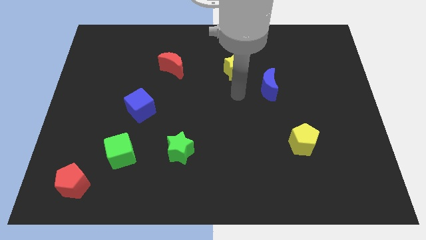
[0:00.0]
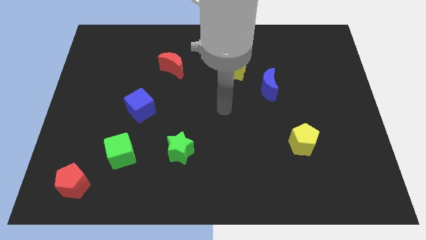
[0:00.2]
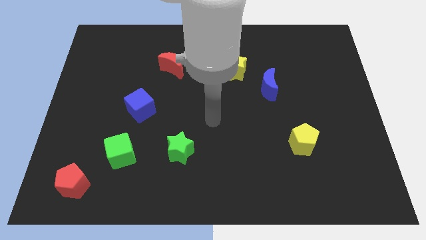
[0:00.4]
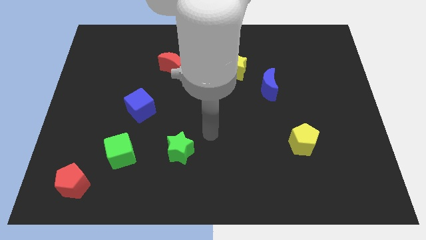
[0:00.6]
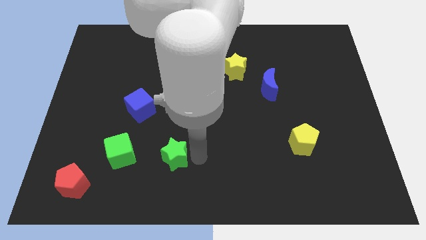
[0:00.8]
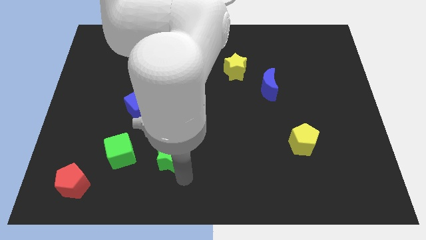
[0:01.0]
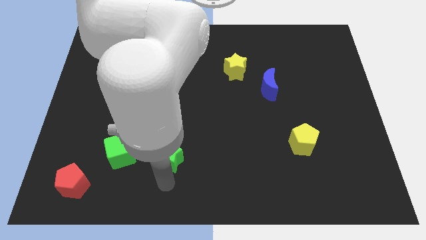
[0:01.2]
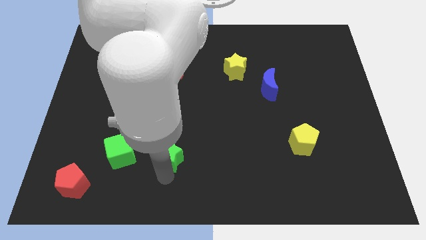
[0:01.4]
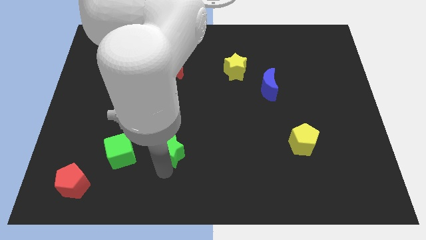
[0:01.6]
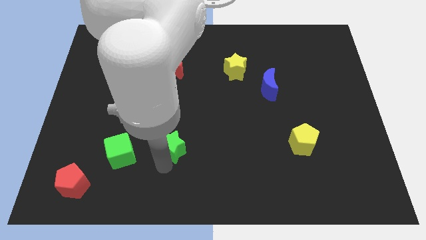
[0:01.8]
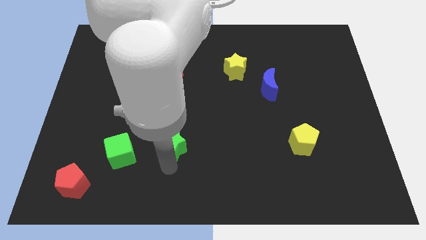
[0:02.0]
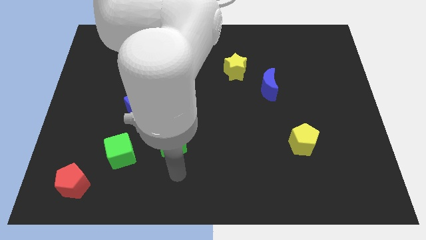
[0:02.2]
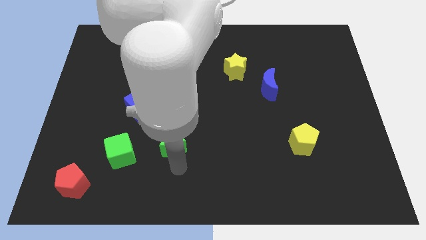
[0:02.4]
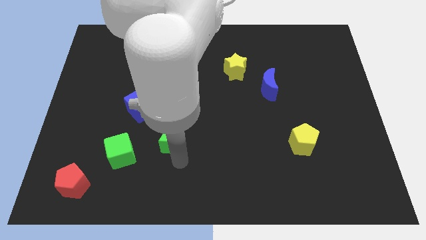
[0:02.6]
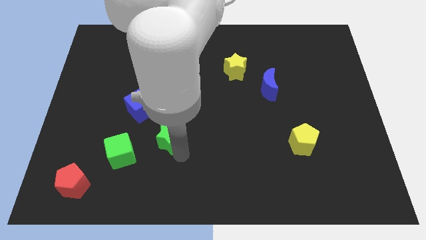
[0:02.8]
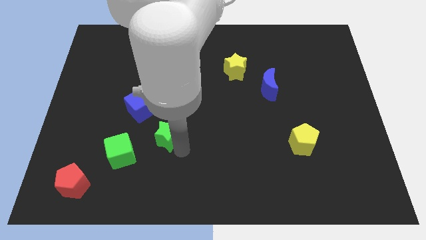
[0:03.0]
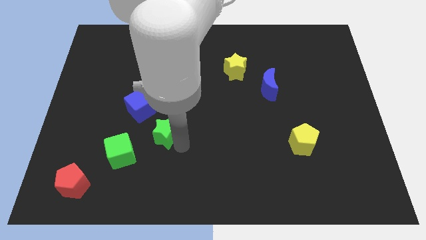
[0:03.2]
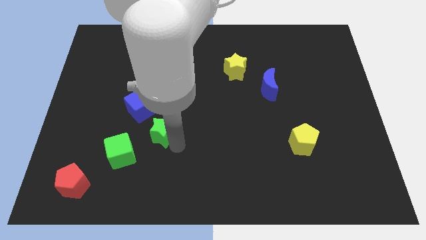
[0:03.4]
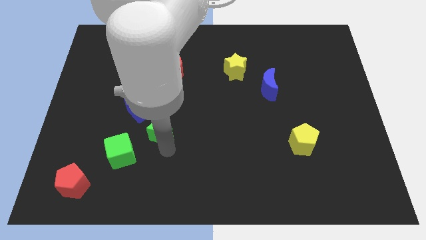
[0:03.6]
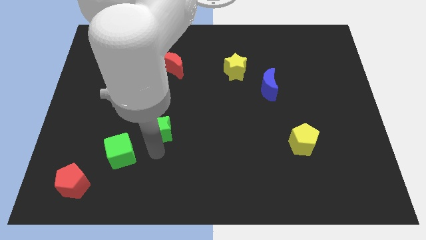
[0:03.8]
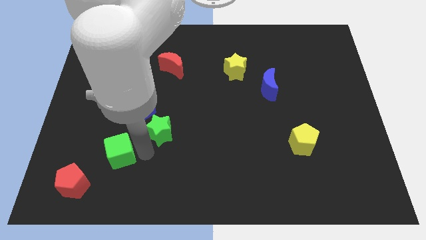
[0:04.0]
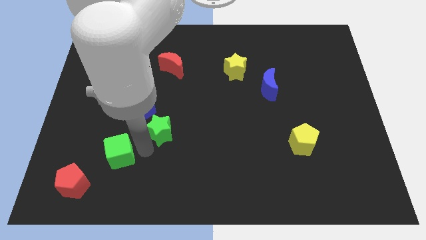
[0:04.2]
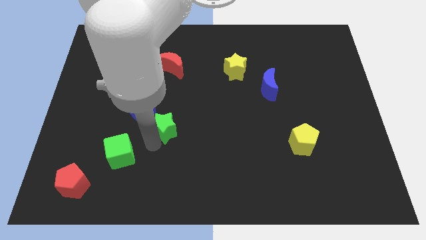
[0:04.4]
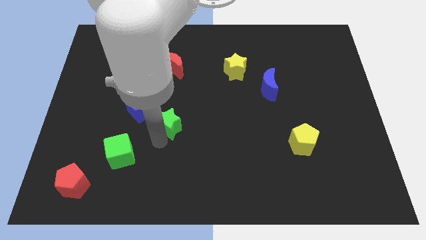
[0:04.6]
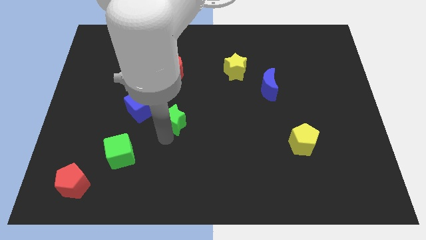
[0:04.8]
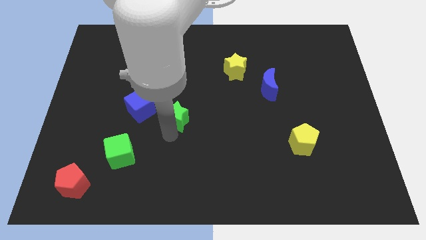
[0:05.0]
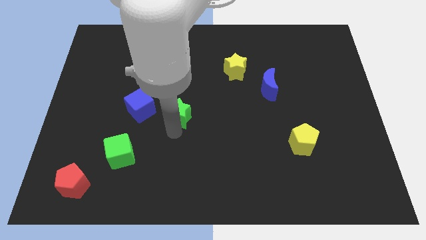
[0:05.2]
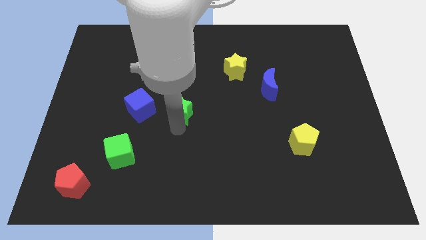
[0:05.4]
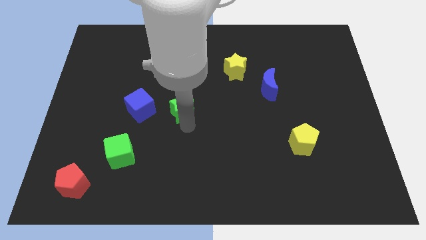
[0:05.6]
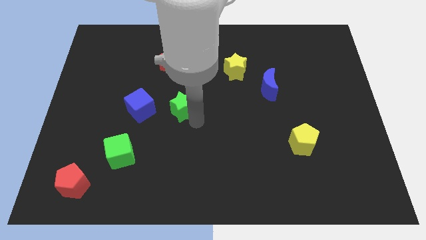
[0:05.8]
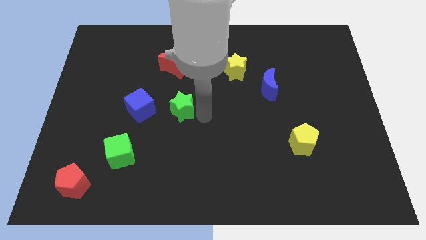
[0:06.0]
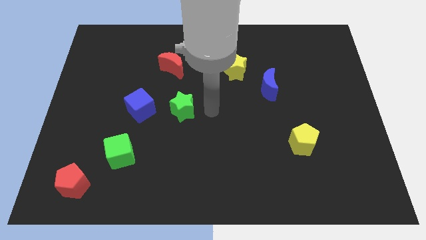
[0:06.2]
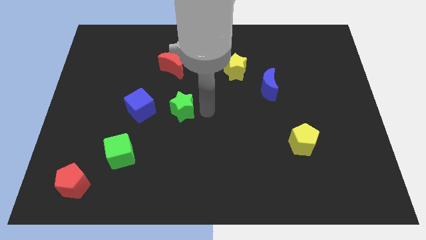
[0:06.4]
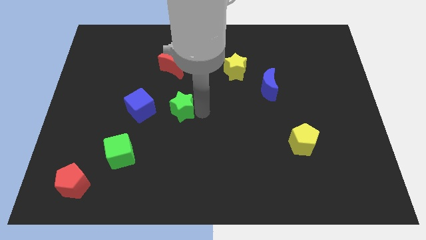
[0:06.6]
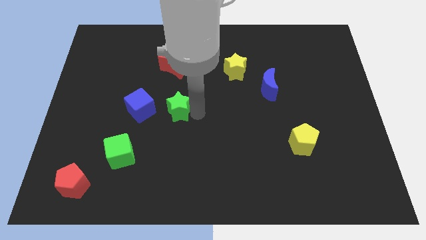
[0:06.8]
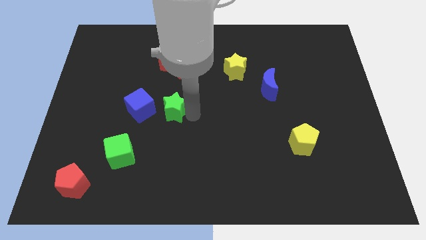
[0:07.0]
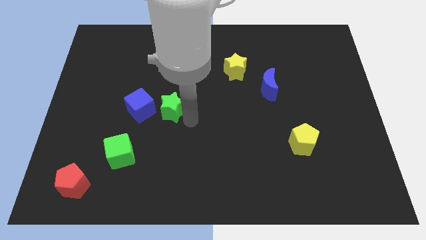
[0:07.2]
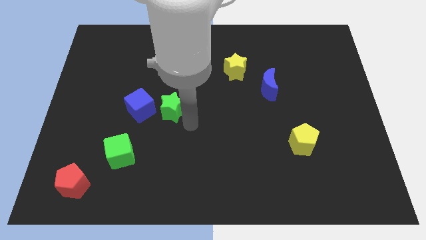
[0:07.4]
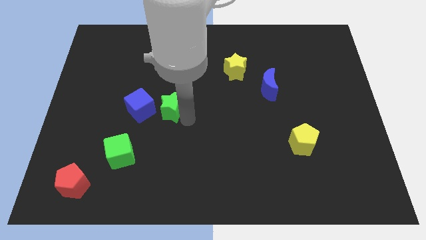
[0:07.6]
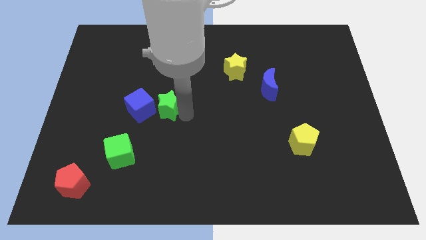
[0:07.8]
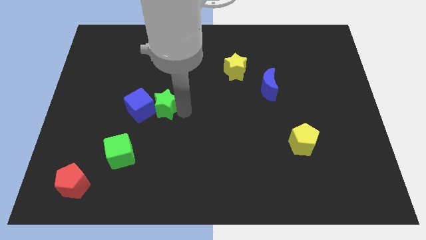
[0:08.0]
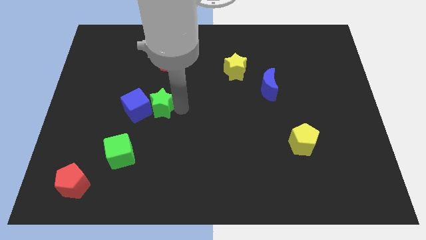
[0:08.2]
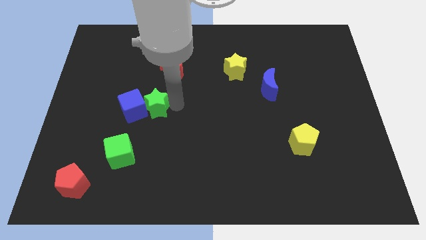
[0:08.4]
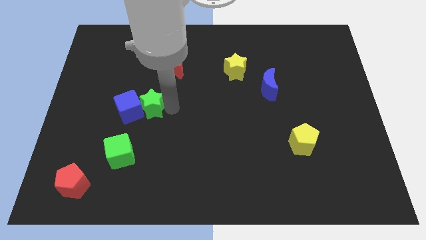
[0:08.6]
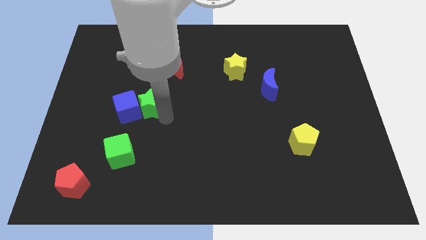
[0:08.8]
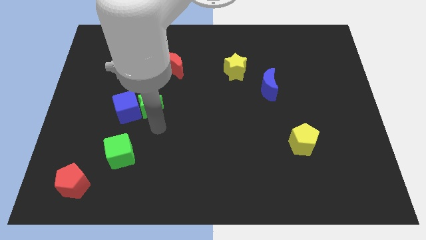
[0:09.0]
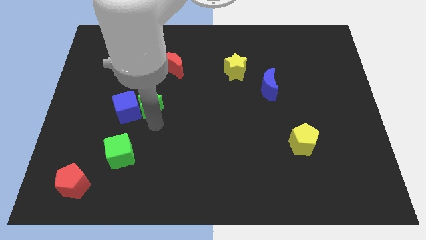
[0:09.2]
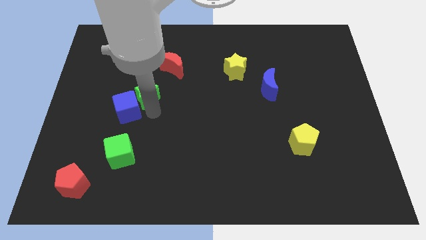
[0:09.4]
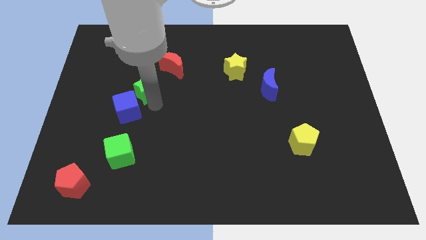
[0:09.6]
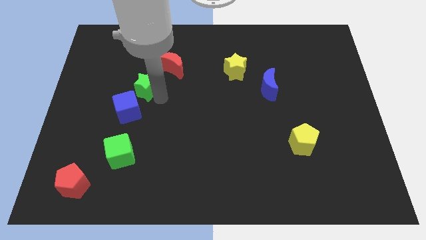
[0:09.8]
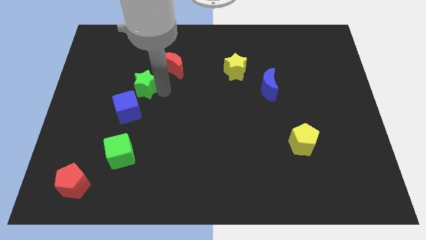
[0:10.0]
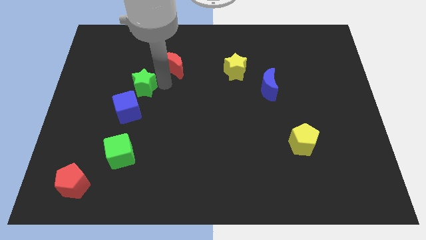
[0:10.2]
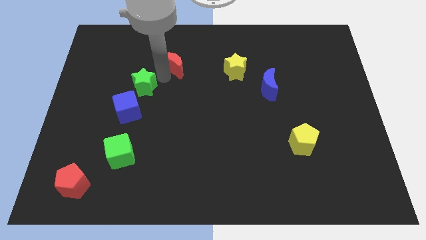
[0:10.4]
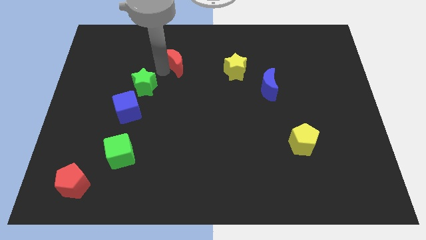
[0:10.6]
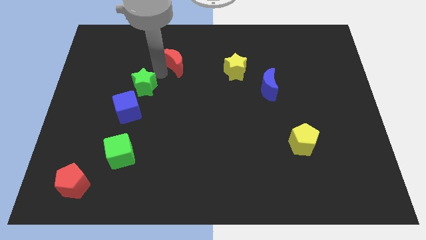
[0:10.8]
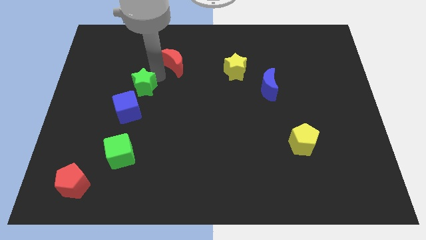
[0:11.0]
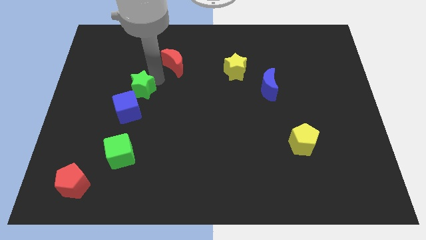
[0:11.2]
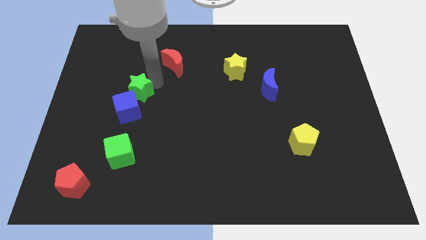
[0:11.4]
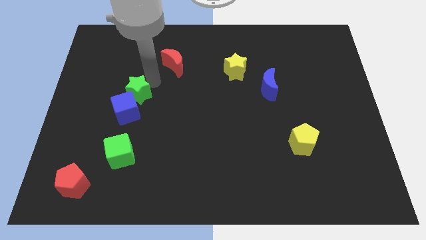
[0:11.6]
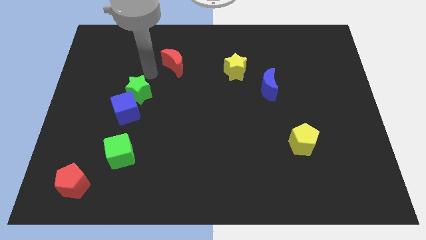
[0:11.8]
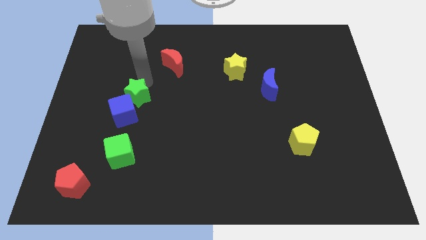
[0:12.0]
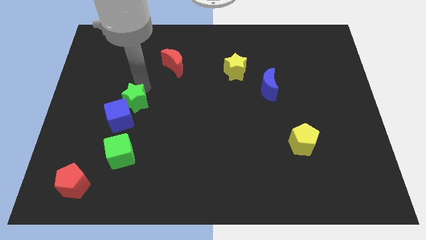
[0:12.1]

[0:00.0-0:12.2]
put the green star above the green cube

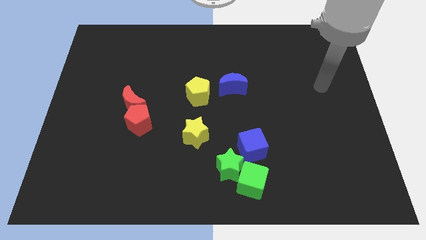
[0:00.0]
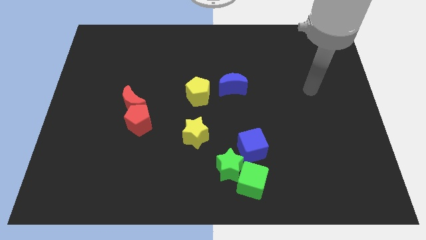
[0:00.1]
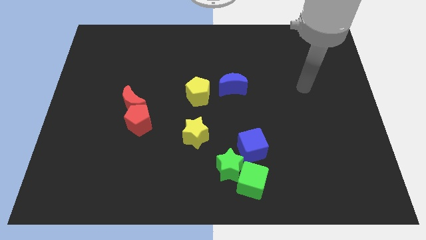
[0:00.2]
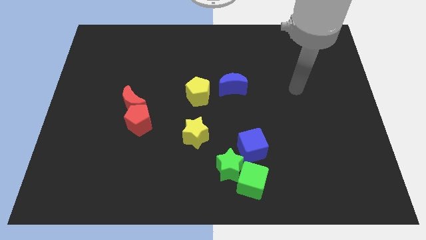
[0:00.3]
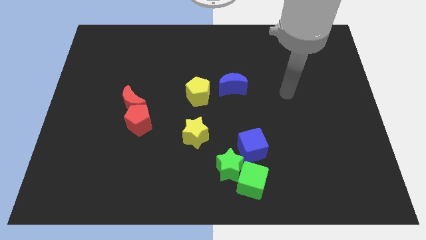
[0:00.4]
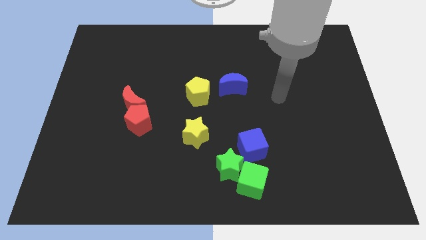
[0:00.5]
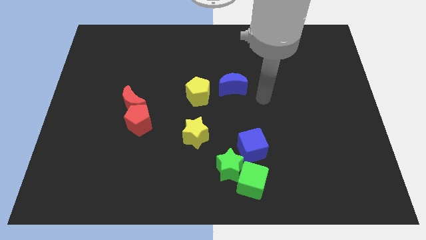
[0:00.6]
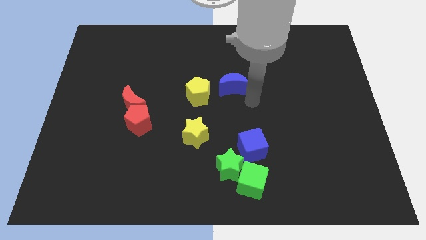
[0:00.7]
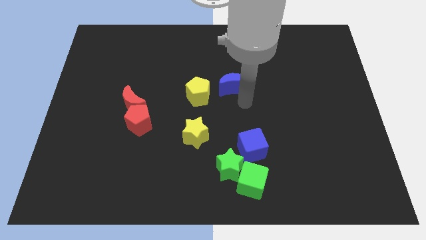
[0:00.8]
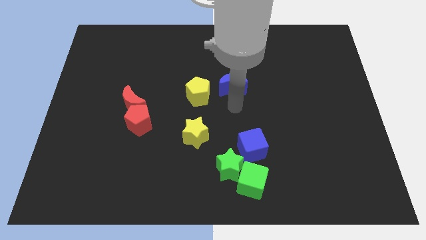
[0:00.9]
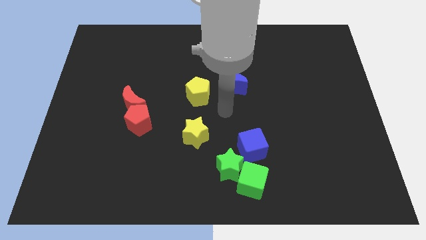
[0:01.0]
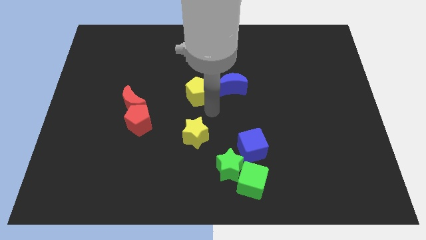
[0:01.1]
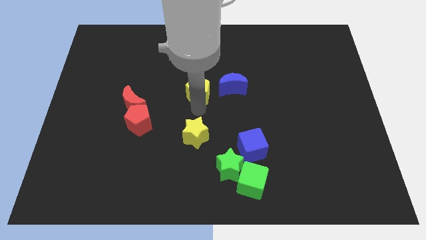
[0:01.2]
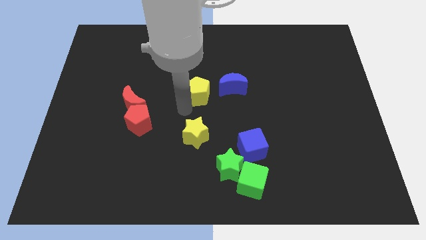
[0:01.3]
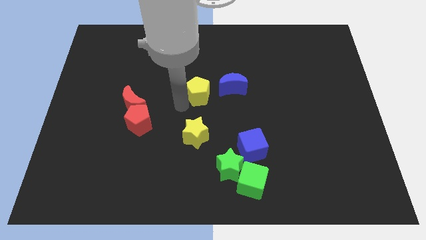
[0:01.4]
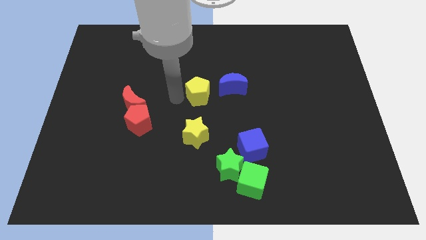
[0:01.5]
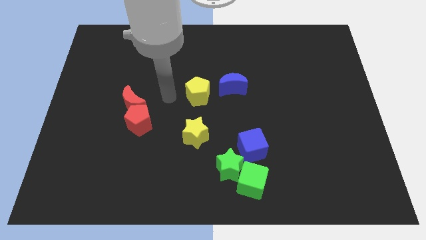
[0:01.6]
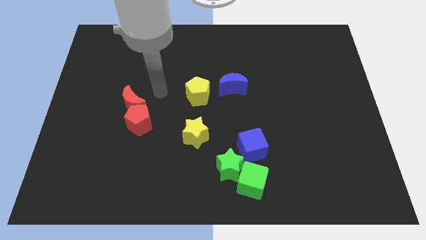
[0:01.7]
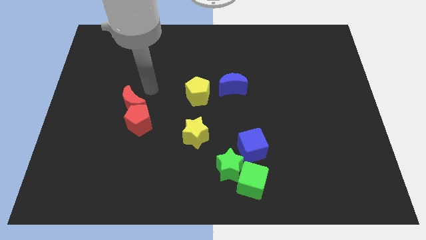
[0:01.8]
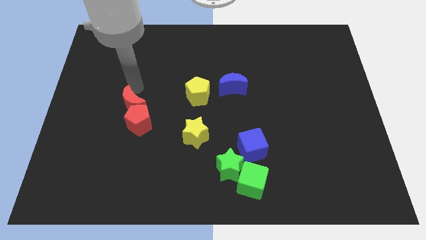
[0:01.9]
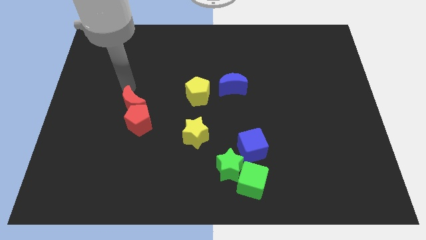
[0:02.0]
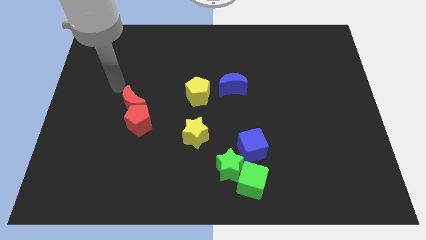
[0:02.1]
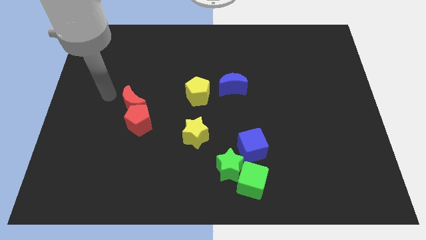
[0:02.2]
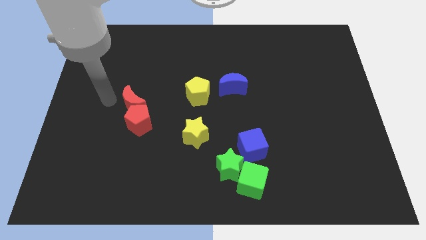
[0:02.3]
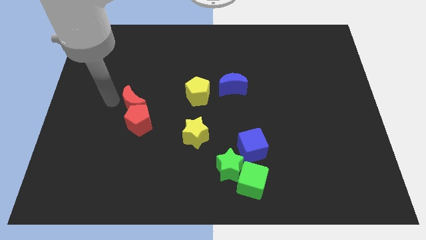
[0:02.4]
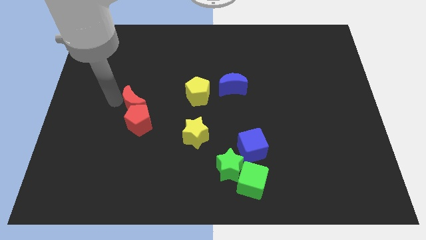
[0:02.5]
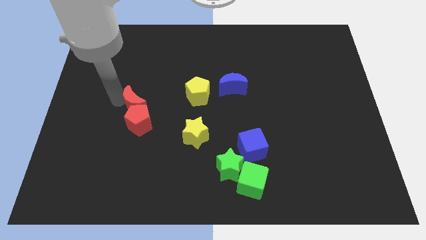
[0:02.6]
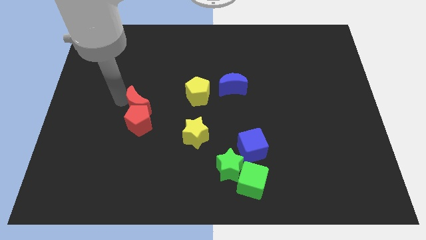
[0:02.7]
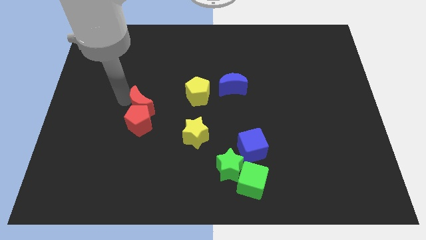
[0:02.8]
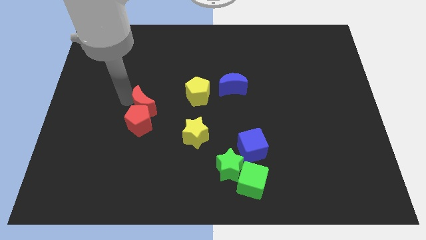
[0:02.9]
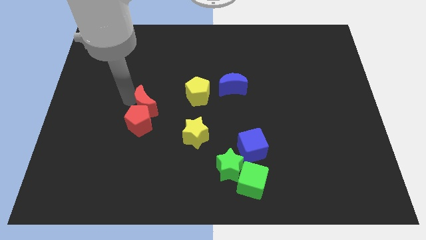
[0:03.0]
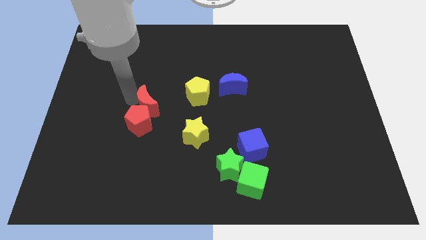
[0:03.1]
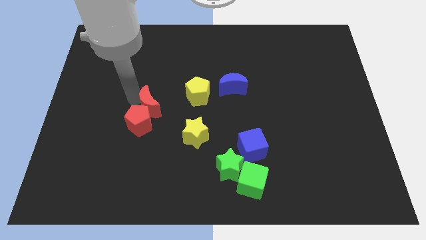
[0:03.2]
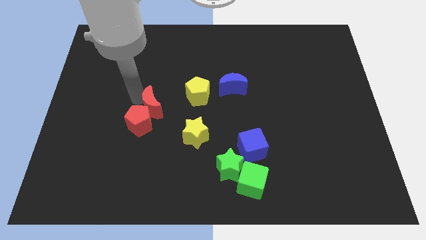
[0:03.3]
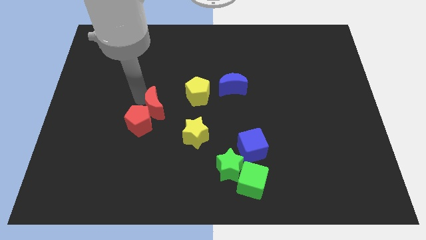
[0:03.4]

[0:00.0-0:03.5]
push the red moon to the right side of the red pentagon
